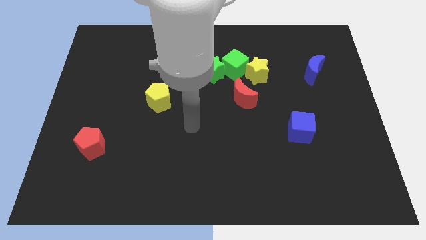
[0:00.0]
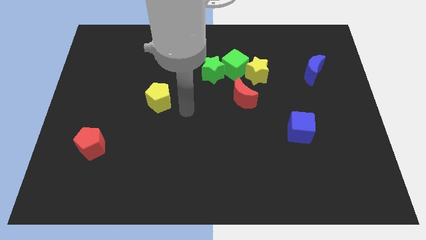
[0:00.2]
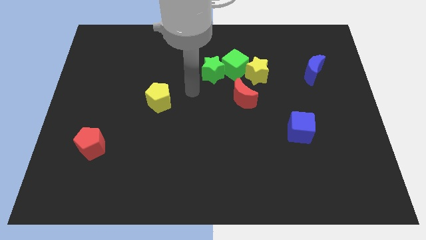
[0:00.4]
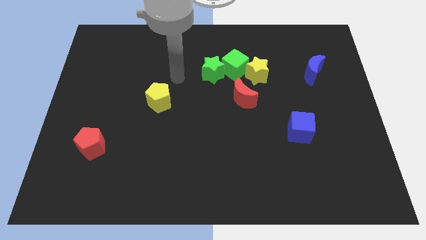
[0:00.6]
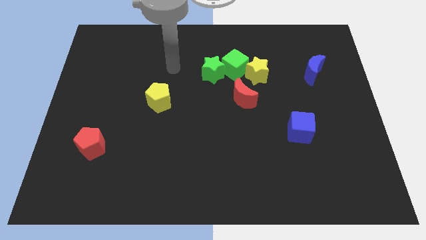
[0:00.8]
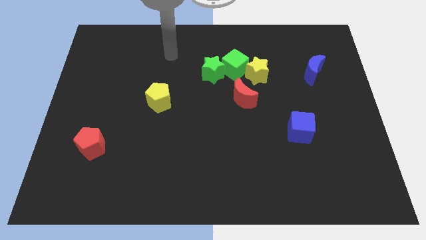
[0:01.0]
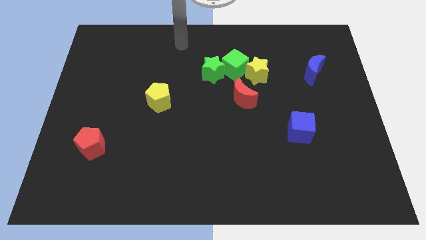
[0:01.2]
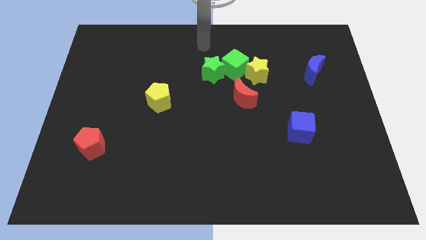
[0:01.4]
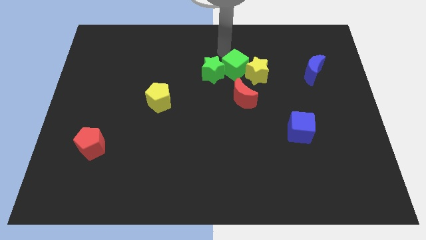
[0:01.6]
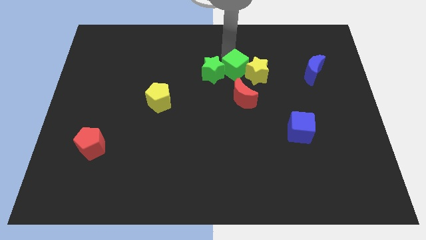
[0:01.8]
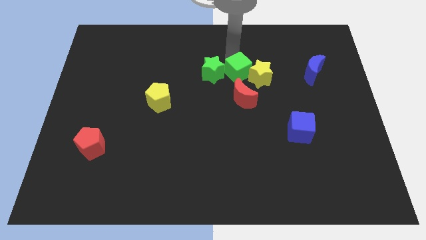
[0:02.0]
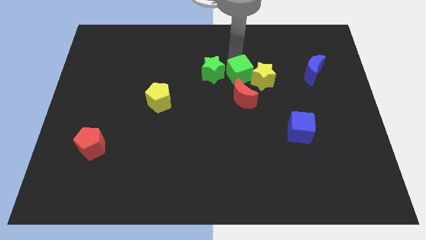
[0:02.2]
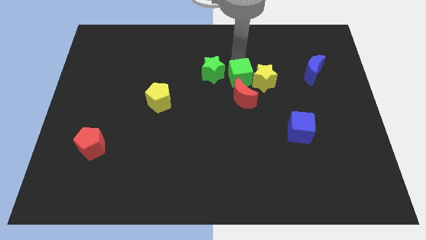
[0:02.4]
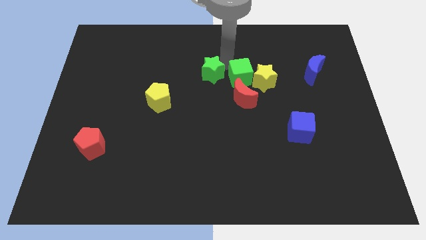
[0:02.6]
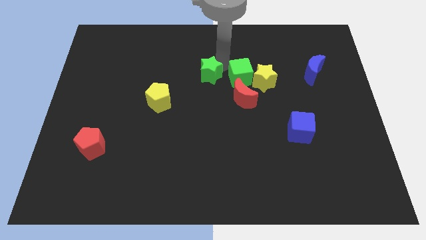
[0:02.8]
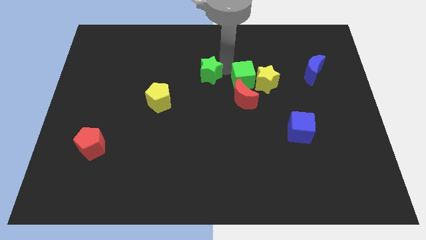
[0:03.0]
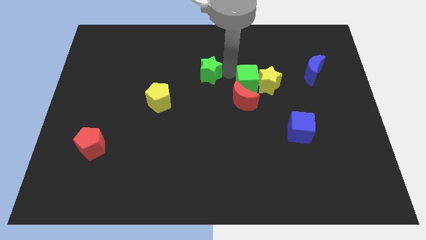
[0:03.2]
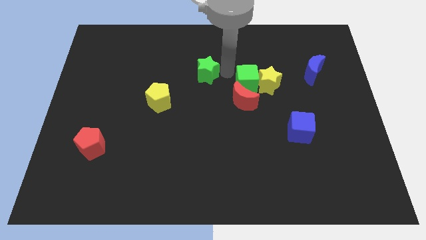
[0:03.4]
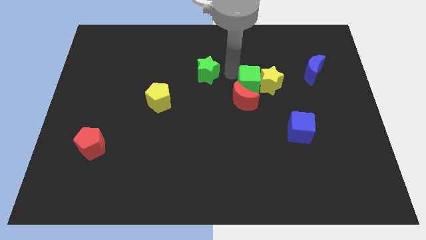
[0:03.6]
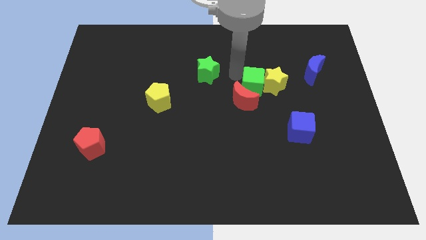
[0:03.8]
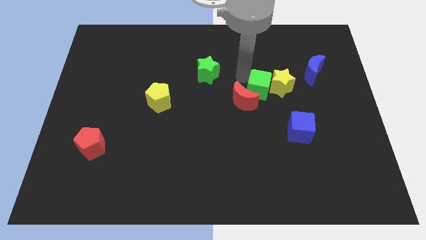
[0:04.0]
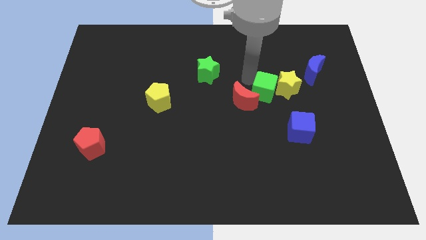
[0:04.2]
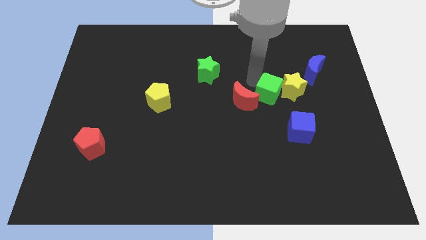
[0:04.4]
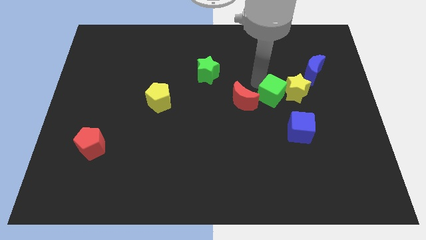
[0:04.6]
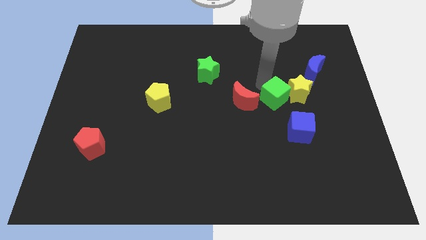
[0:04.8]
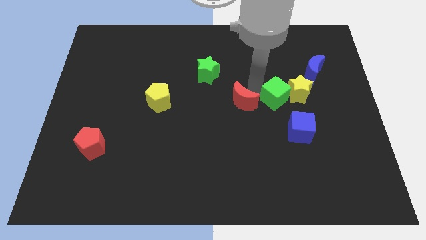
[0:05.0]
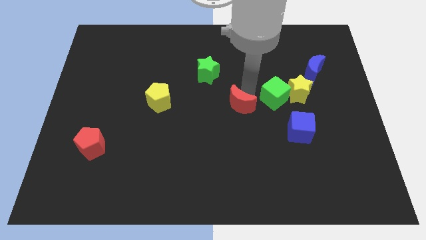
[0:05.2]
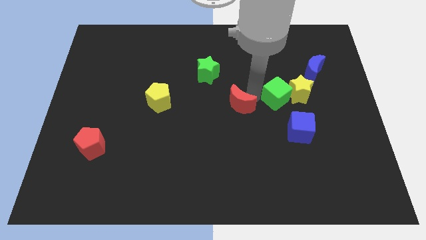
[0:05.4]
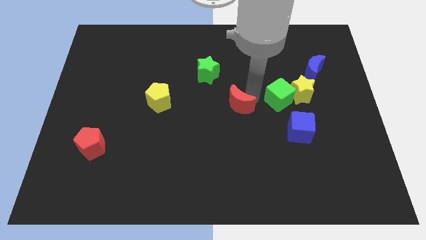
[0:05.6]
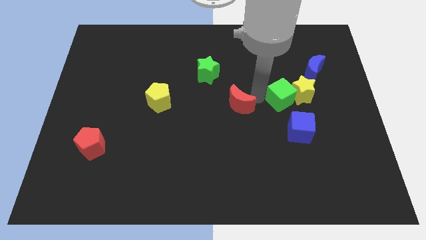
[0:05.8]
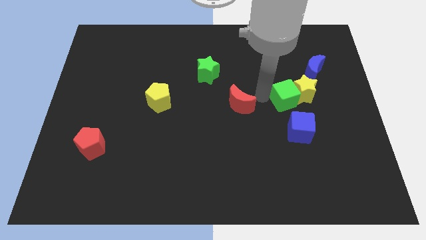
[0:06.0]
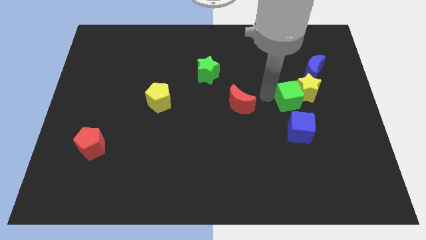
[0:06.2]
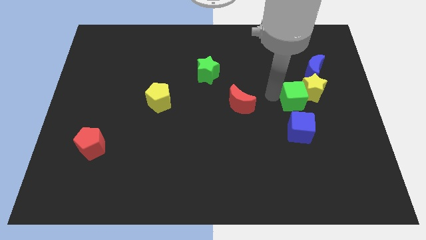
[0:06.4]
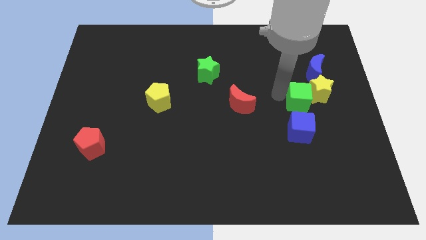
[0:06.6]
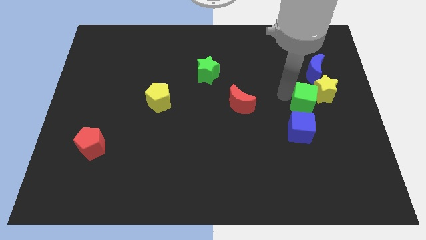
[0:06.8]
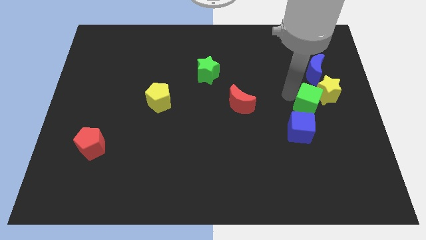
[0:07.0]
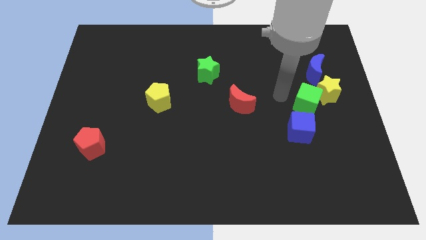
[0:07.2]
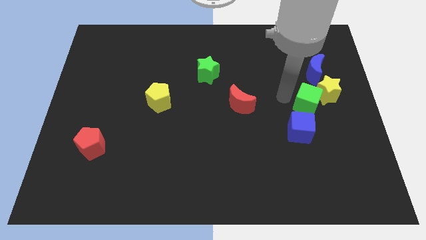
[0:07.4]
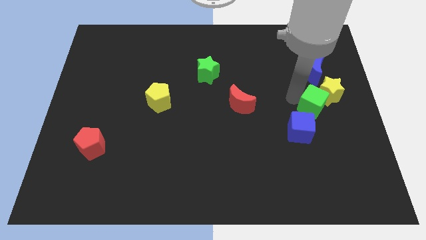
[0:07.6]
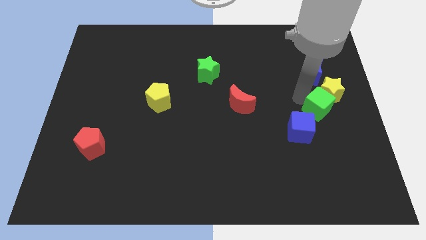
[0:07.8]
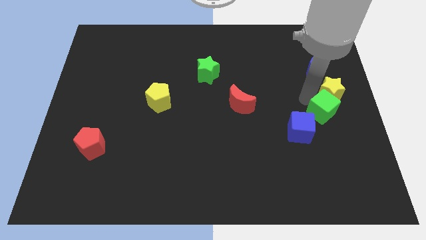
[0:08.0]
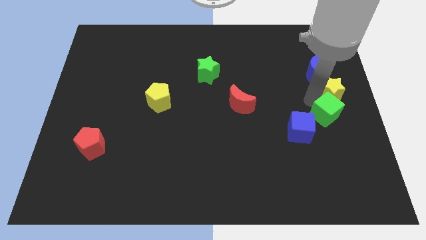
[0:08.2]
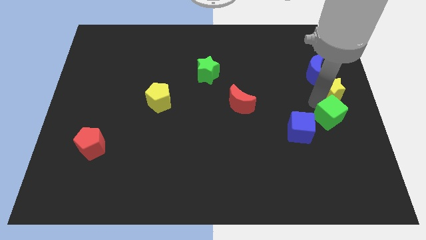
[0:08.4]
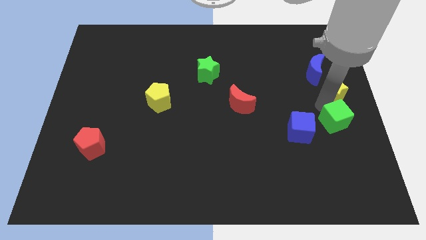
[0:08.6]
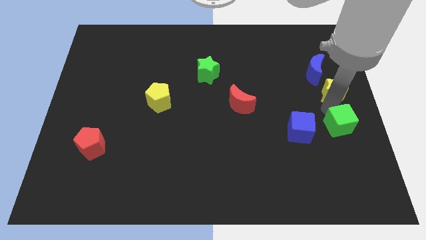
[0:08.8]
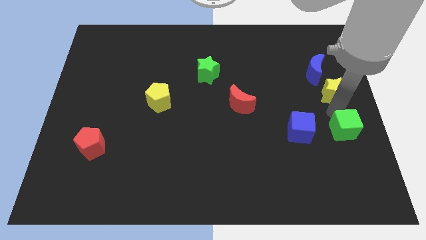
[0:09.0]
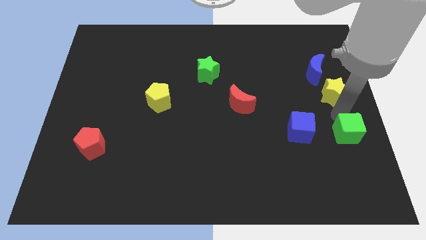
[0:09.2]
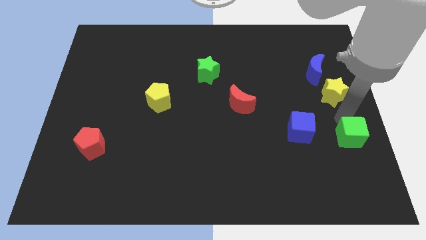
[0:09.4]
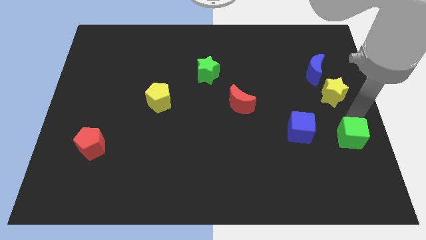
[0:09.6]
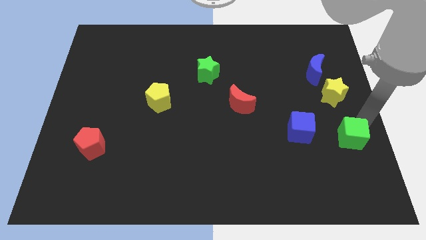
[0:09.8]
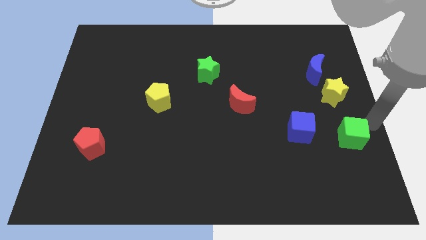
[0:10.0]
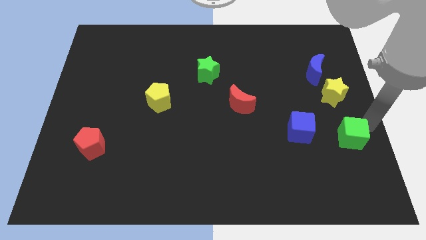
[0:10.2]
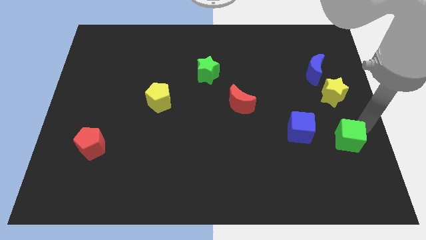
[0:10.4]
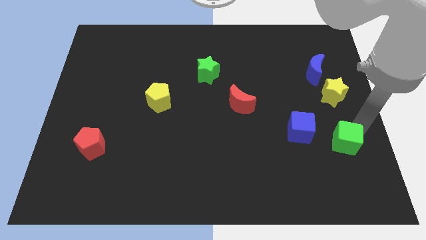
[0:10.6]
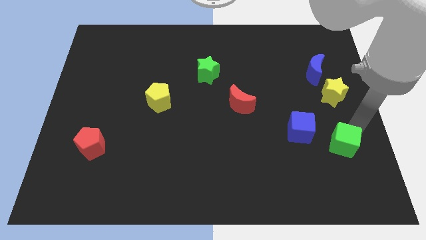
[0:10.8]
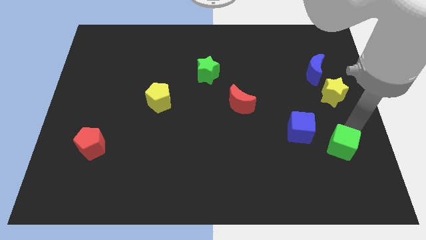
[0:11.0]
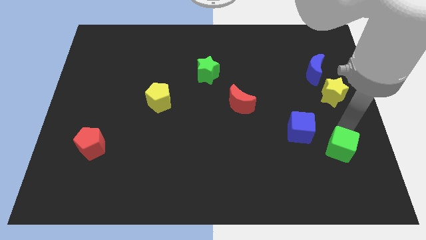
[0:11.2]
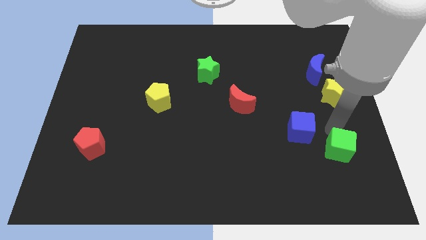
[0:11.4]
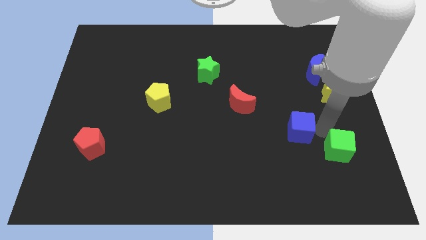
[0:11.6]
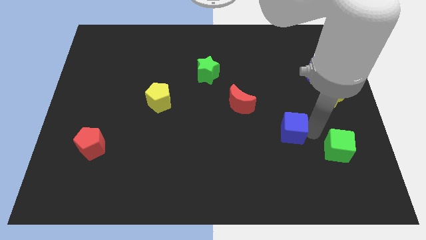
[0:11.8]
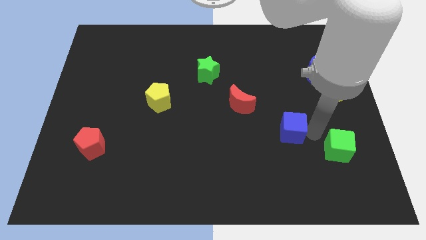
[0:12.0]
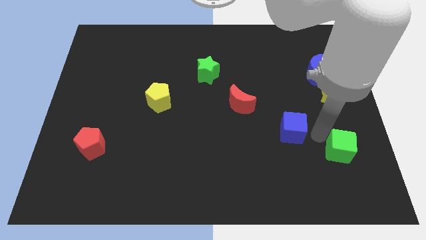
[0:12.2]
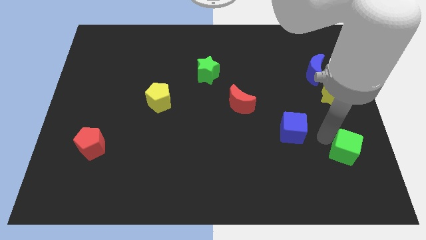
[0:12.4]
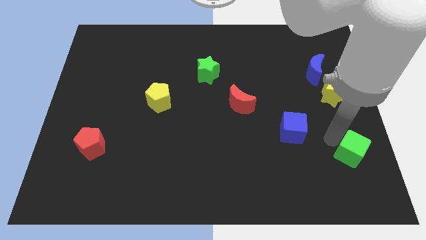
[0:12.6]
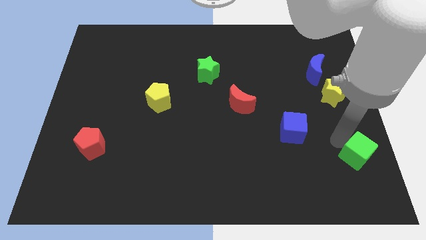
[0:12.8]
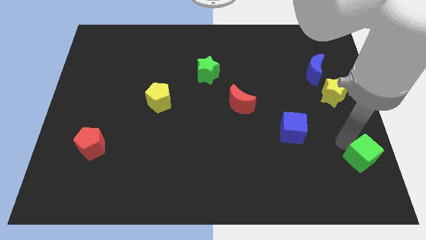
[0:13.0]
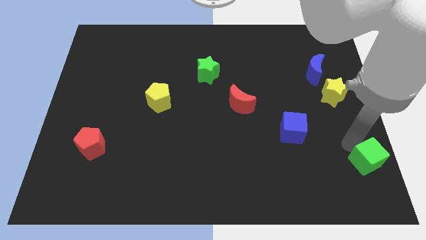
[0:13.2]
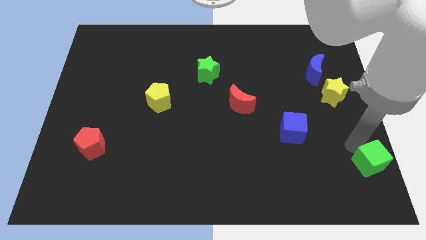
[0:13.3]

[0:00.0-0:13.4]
move the green cube to the bottom right corner

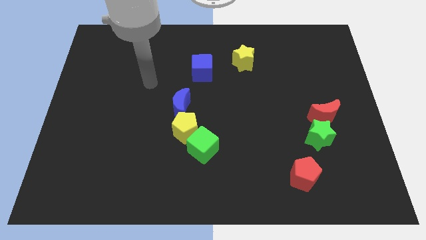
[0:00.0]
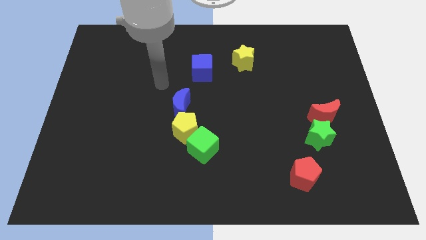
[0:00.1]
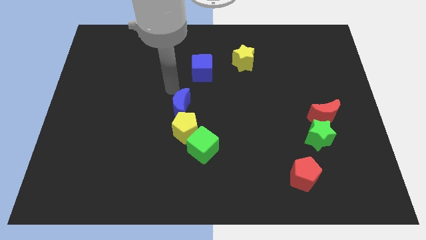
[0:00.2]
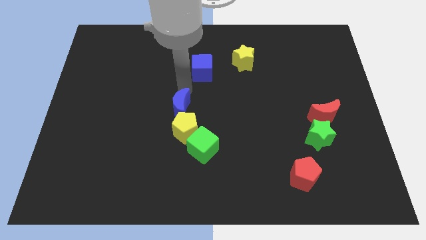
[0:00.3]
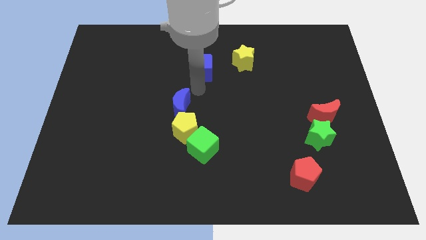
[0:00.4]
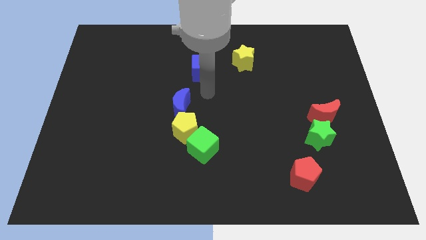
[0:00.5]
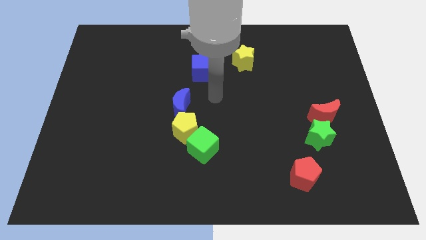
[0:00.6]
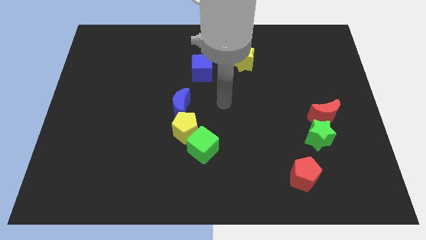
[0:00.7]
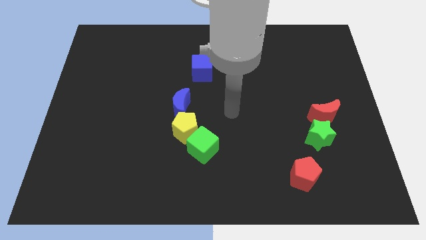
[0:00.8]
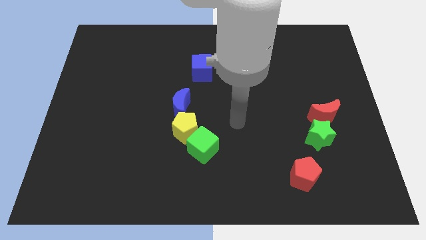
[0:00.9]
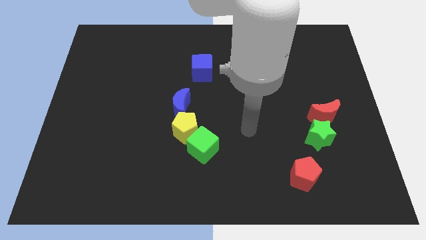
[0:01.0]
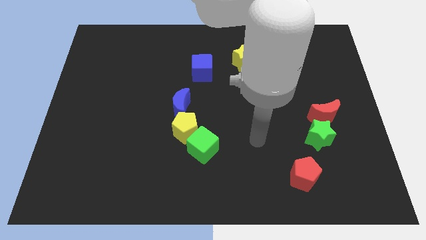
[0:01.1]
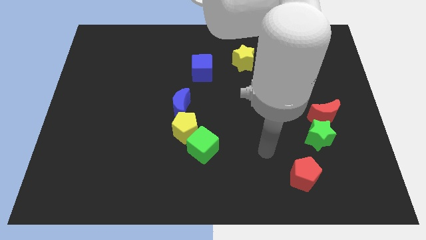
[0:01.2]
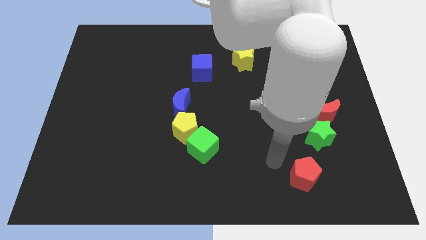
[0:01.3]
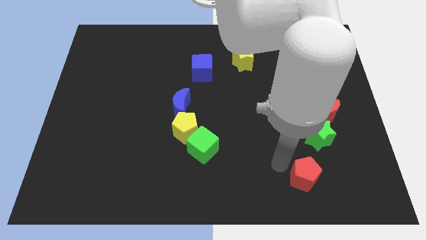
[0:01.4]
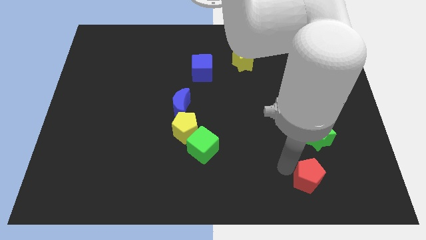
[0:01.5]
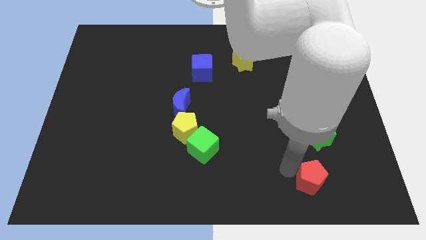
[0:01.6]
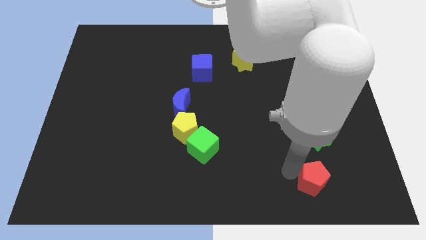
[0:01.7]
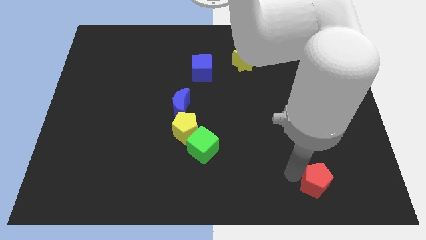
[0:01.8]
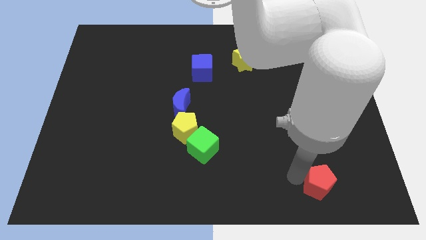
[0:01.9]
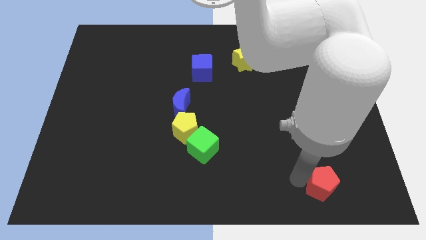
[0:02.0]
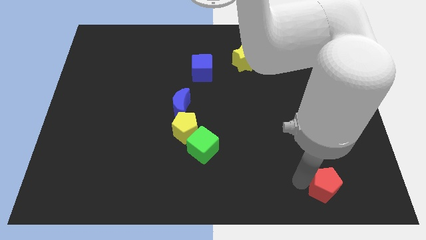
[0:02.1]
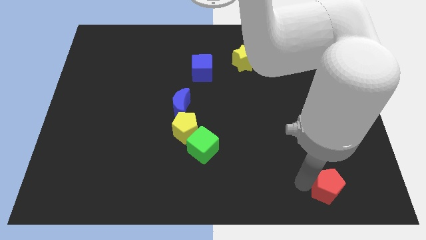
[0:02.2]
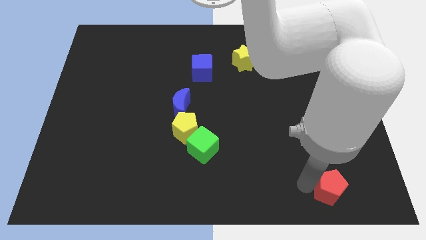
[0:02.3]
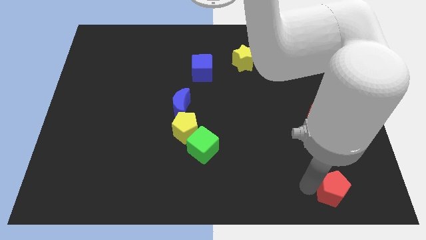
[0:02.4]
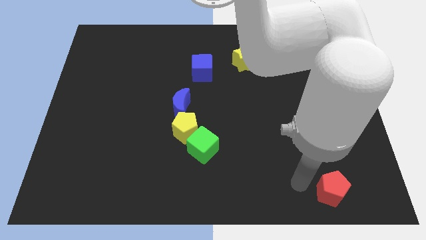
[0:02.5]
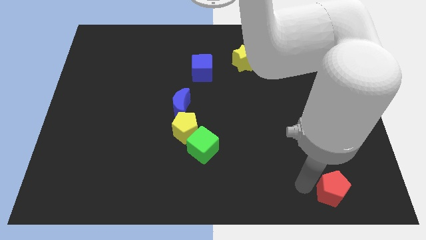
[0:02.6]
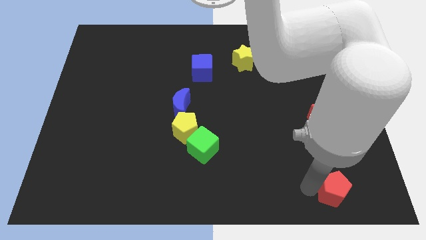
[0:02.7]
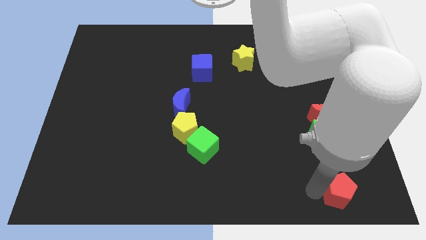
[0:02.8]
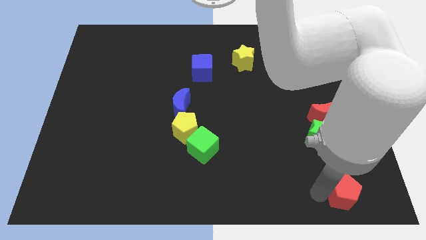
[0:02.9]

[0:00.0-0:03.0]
put the red pentagon to the bottom right corner
